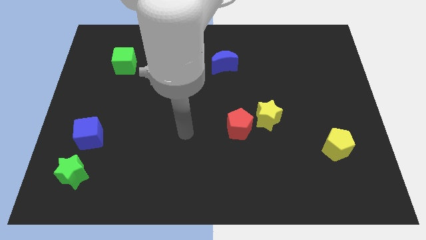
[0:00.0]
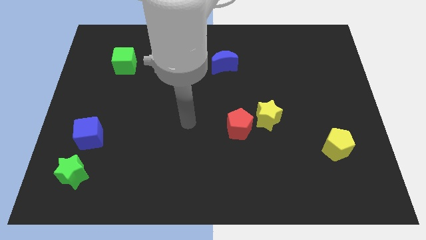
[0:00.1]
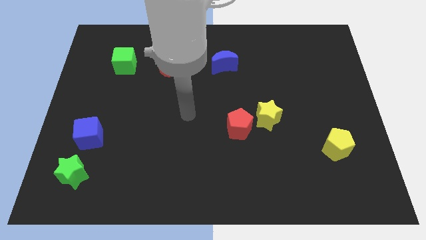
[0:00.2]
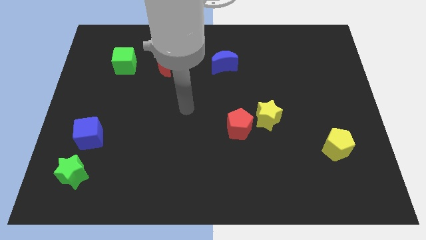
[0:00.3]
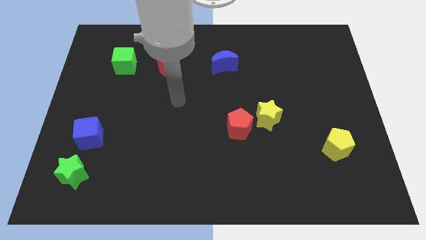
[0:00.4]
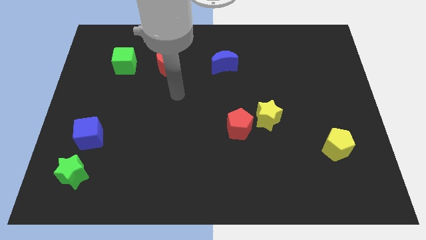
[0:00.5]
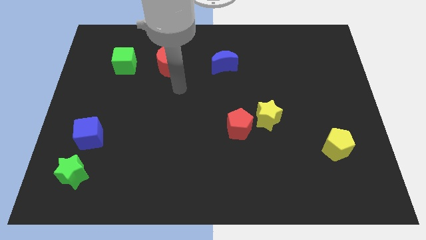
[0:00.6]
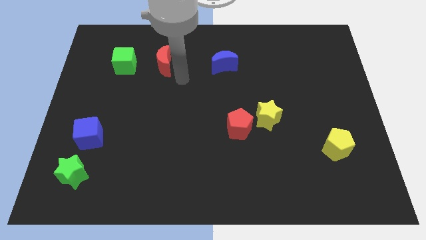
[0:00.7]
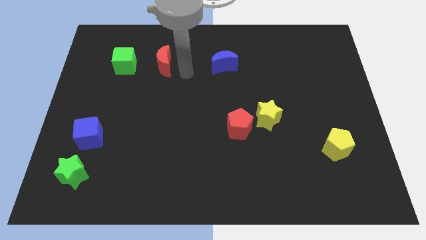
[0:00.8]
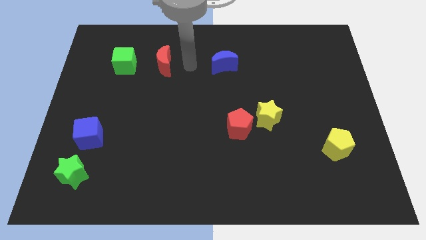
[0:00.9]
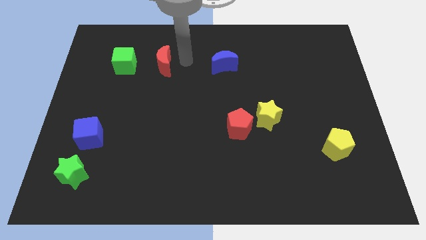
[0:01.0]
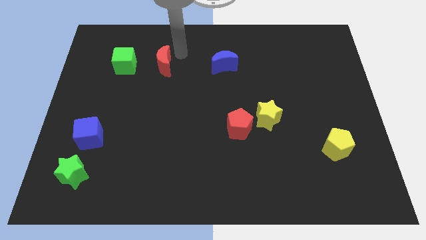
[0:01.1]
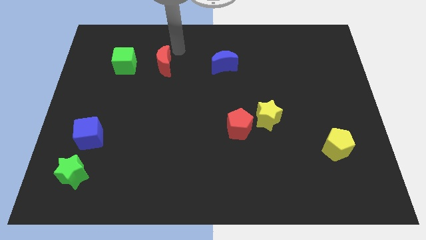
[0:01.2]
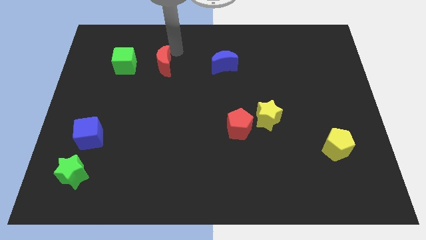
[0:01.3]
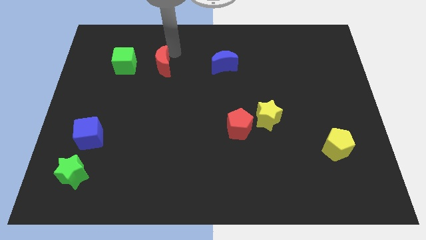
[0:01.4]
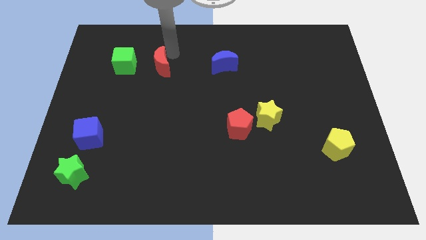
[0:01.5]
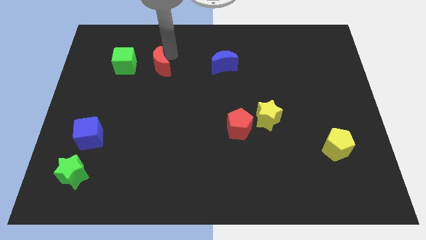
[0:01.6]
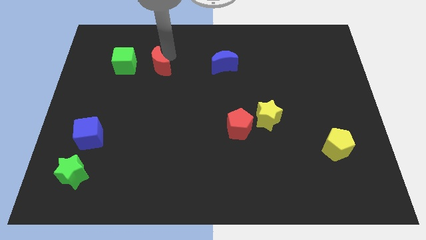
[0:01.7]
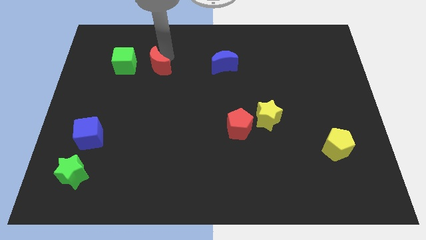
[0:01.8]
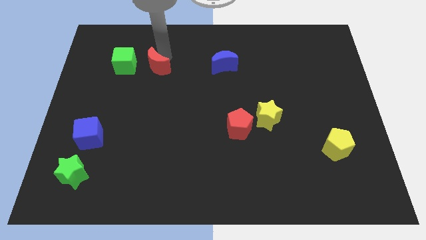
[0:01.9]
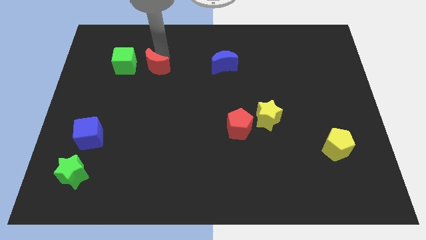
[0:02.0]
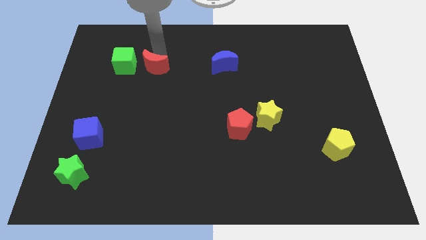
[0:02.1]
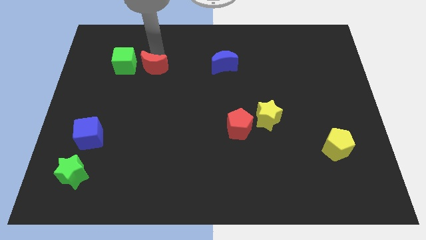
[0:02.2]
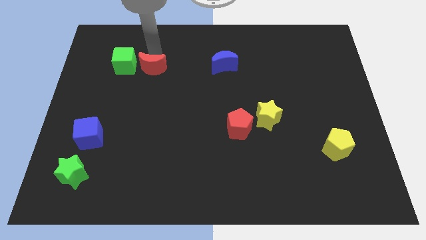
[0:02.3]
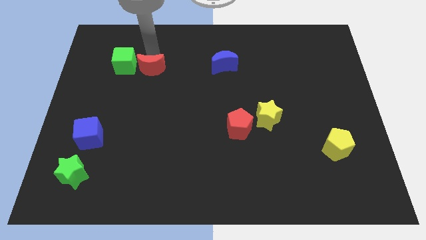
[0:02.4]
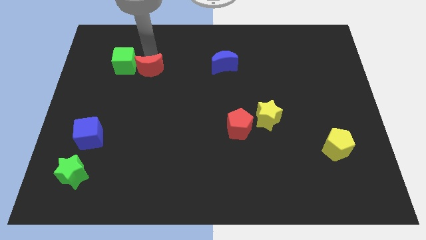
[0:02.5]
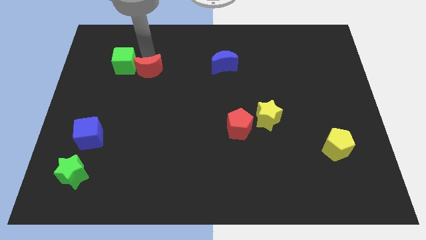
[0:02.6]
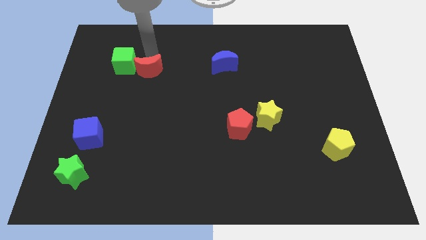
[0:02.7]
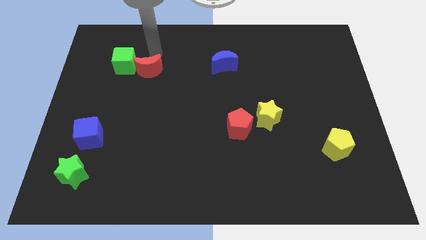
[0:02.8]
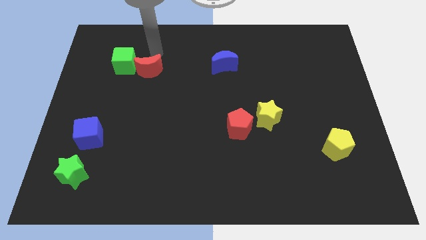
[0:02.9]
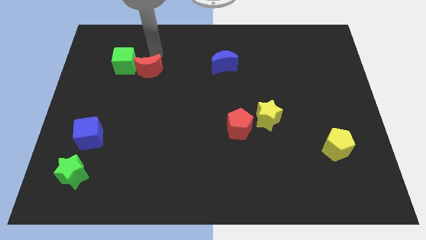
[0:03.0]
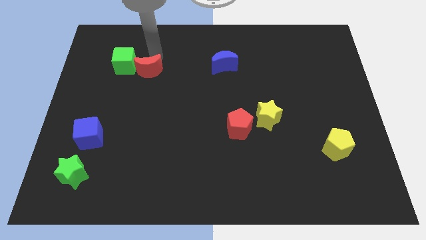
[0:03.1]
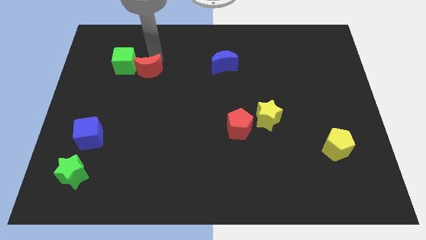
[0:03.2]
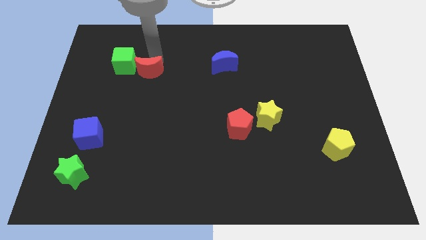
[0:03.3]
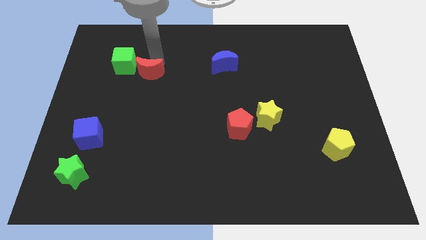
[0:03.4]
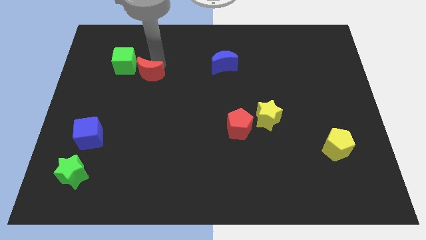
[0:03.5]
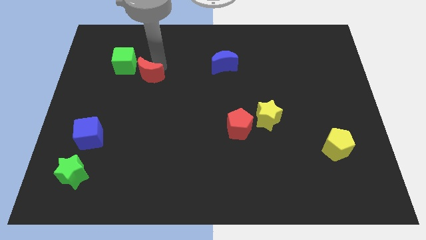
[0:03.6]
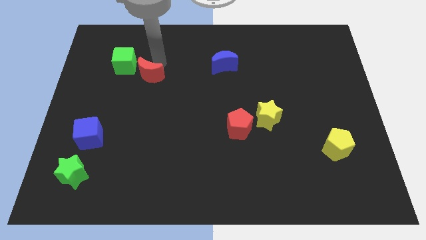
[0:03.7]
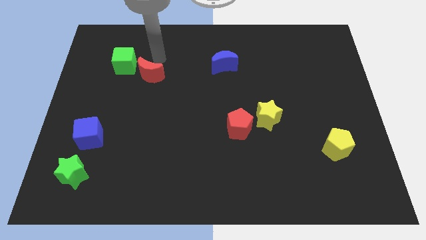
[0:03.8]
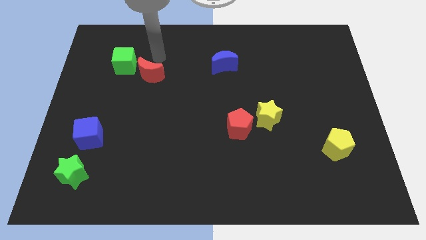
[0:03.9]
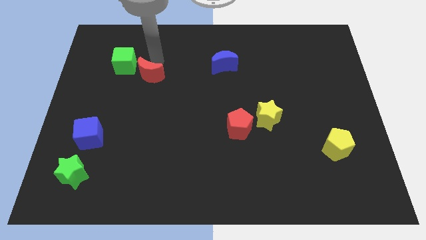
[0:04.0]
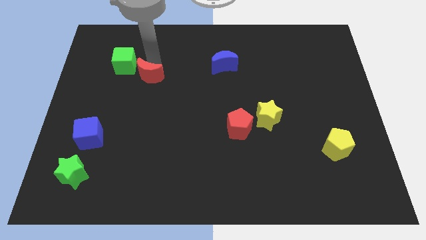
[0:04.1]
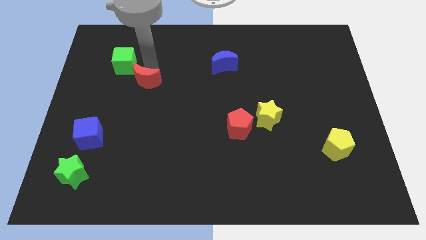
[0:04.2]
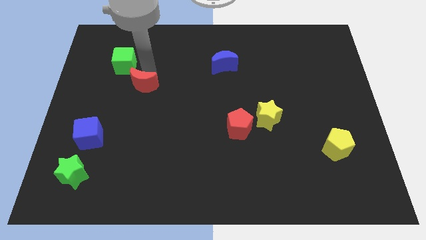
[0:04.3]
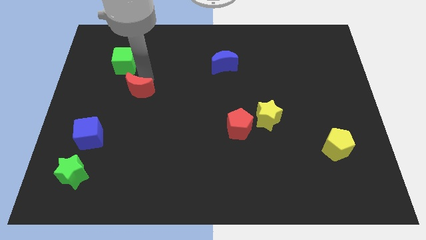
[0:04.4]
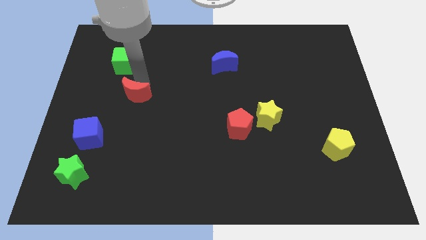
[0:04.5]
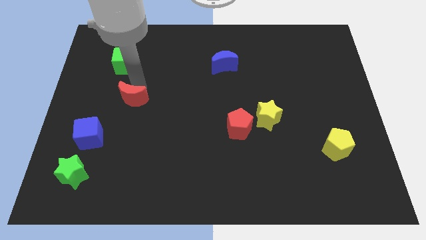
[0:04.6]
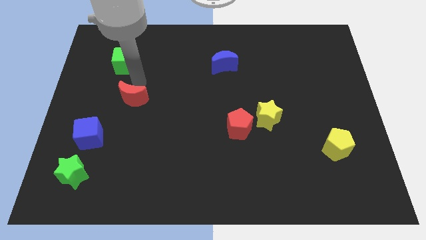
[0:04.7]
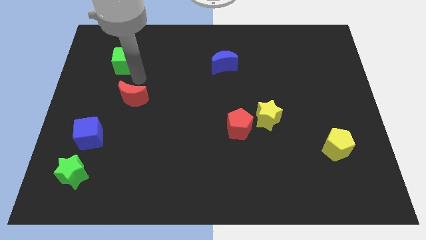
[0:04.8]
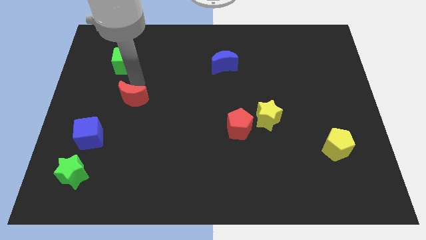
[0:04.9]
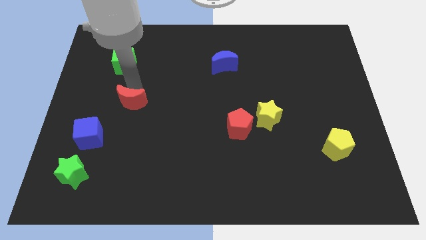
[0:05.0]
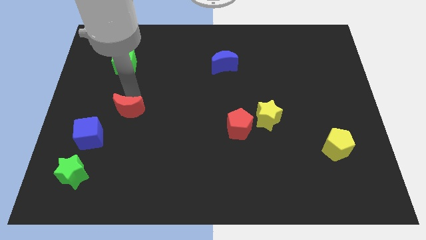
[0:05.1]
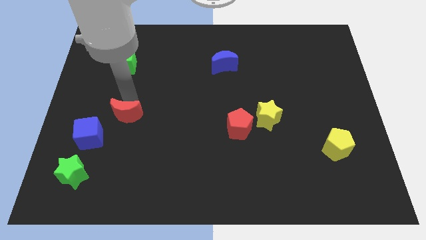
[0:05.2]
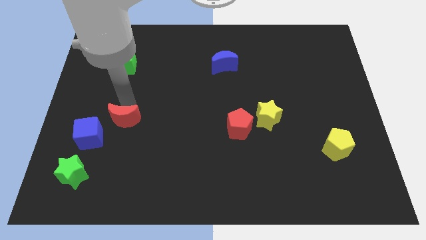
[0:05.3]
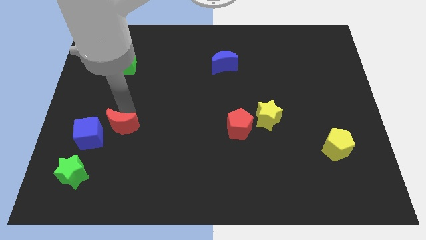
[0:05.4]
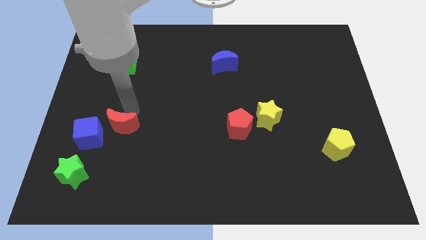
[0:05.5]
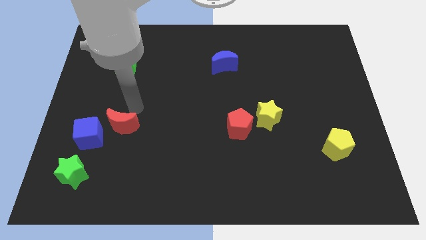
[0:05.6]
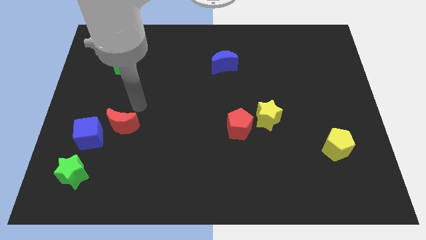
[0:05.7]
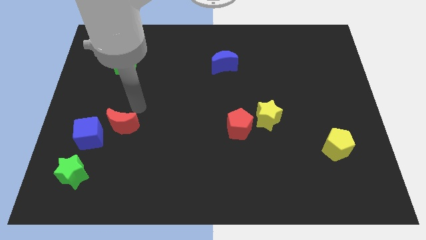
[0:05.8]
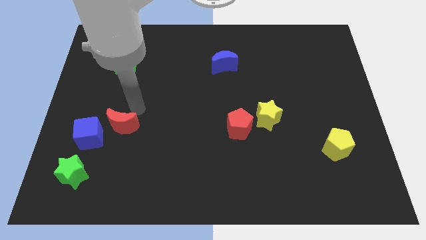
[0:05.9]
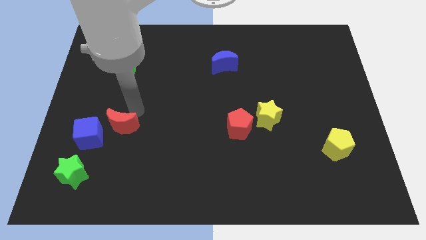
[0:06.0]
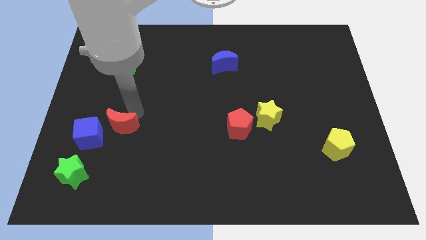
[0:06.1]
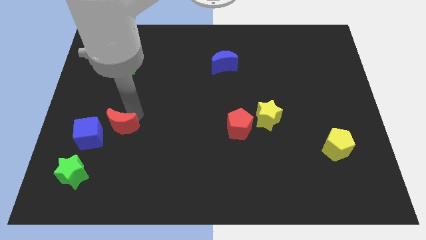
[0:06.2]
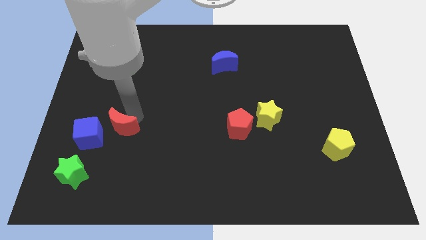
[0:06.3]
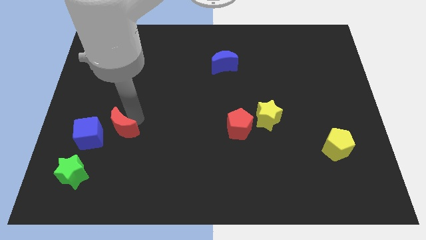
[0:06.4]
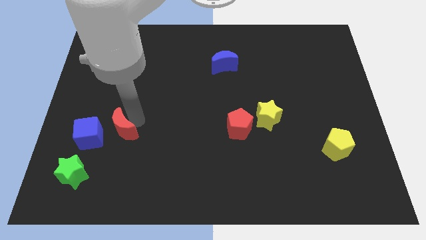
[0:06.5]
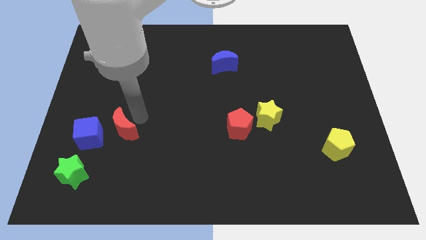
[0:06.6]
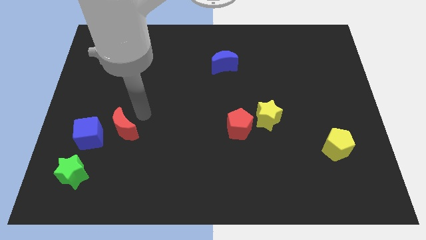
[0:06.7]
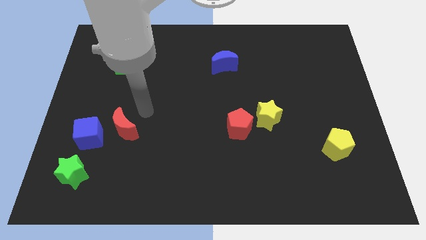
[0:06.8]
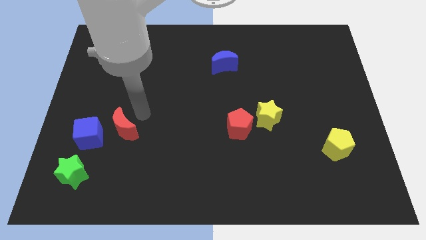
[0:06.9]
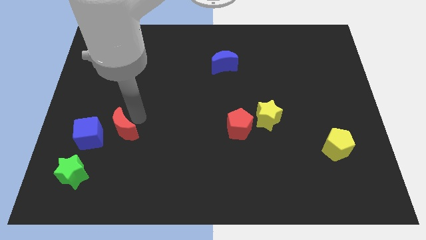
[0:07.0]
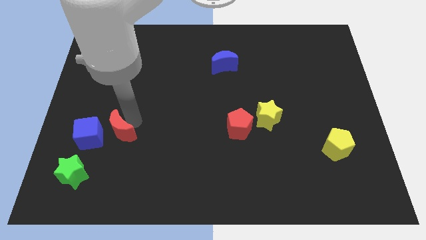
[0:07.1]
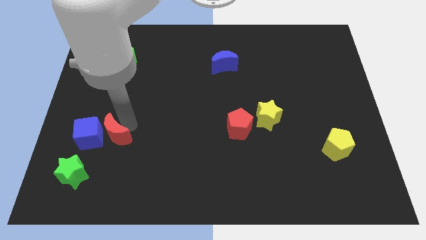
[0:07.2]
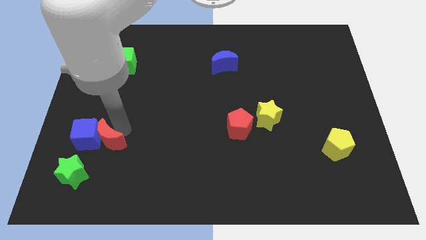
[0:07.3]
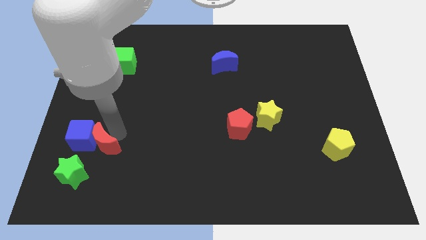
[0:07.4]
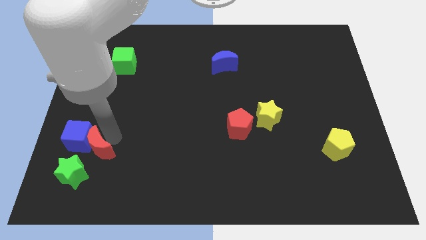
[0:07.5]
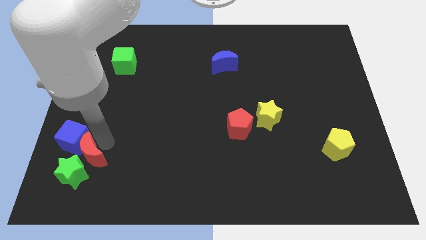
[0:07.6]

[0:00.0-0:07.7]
push the red moon to the green star
